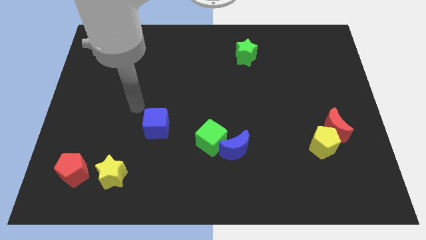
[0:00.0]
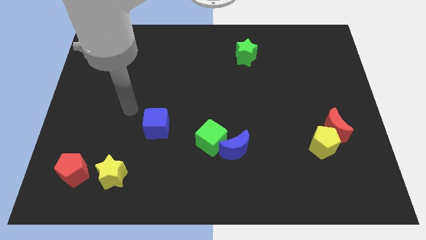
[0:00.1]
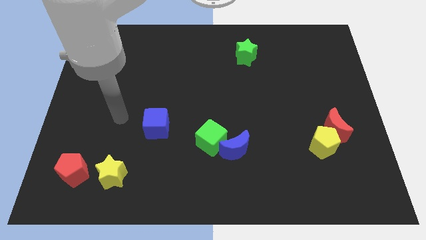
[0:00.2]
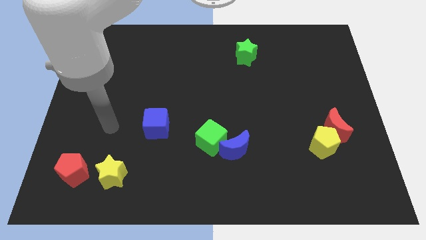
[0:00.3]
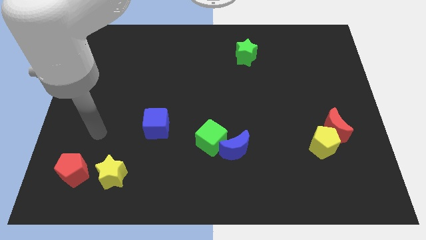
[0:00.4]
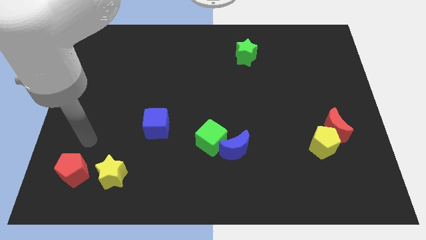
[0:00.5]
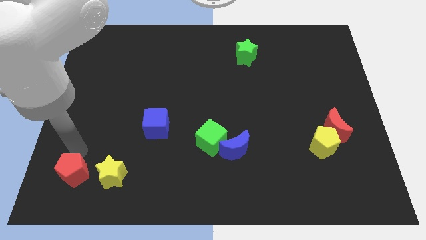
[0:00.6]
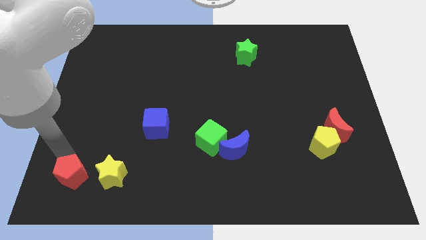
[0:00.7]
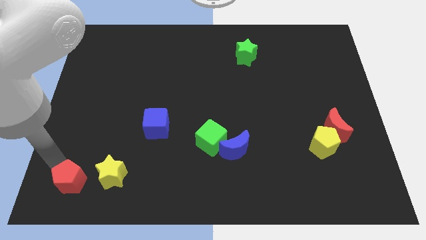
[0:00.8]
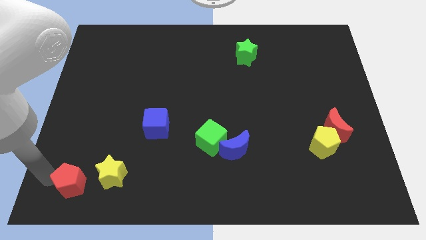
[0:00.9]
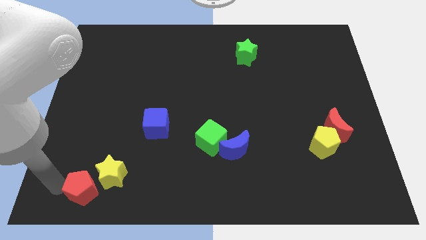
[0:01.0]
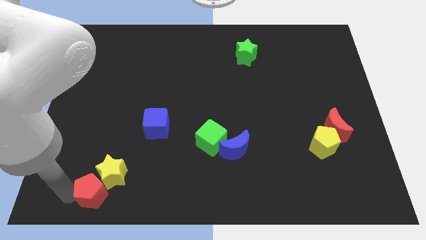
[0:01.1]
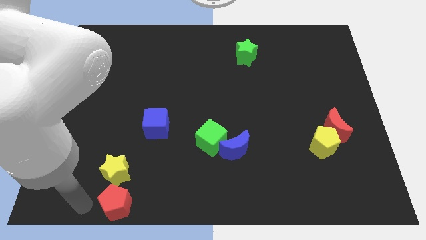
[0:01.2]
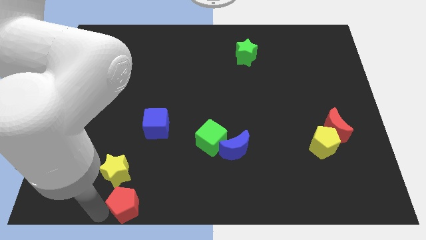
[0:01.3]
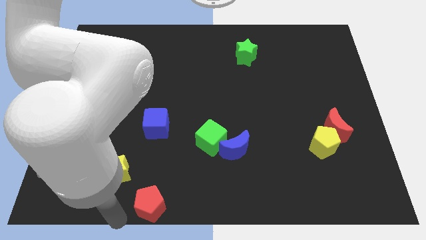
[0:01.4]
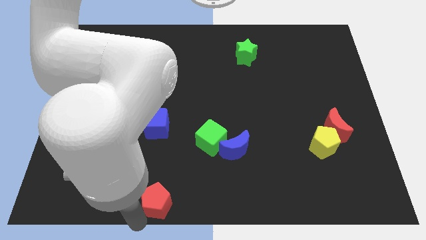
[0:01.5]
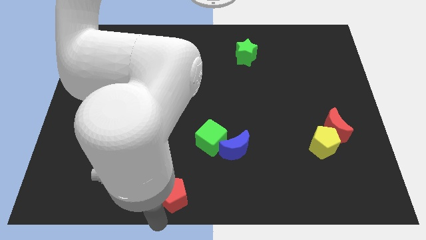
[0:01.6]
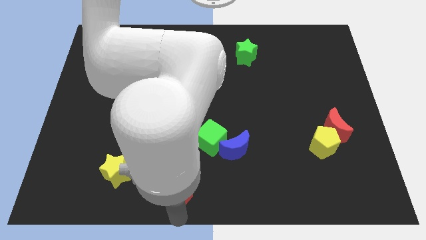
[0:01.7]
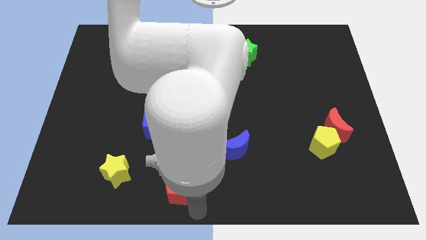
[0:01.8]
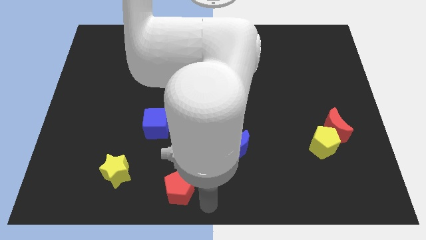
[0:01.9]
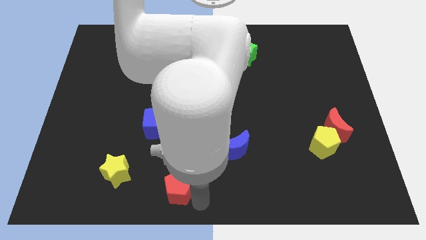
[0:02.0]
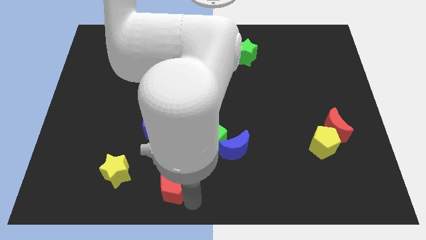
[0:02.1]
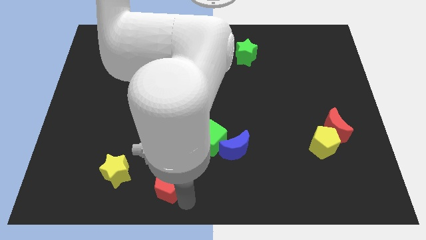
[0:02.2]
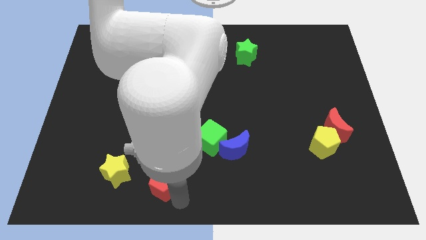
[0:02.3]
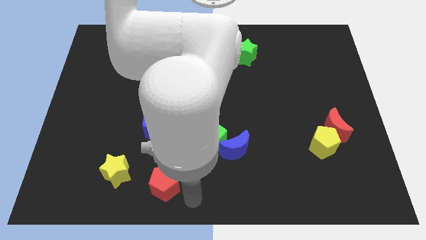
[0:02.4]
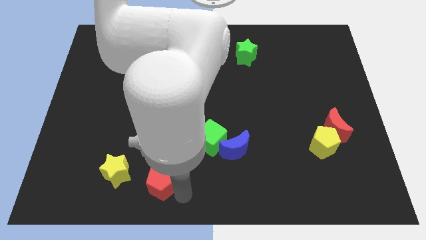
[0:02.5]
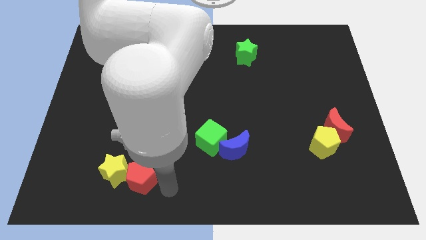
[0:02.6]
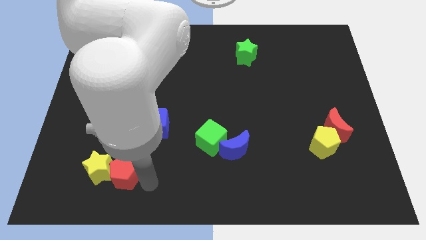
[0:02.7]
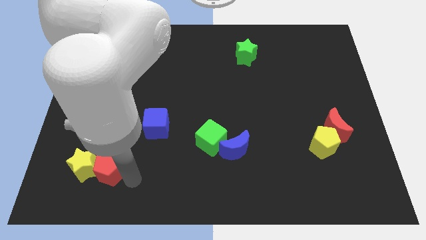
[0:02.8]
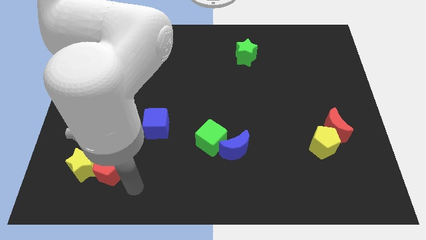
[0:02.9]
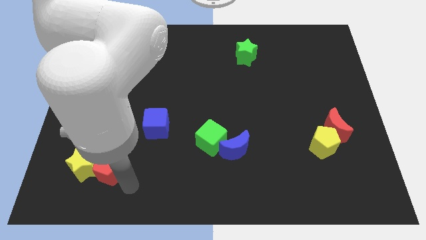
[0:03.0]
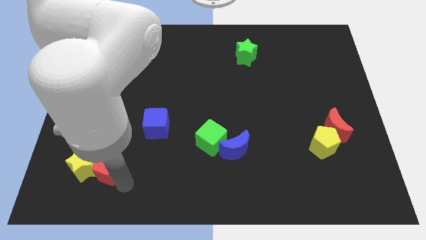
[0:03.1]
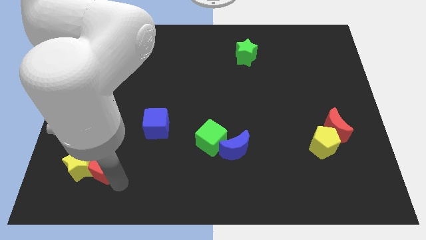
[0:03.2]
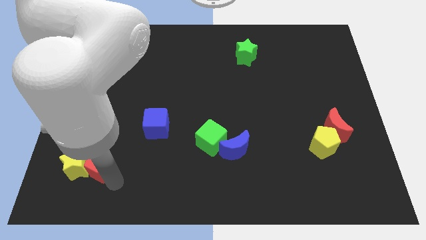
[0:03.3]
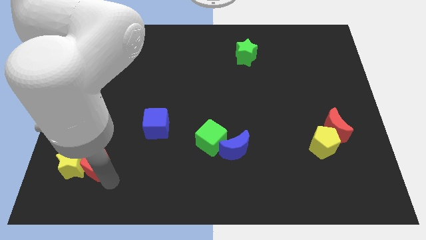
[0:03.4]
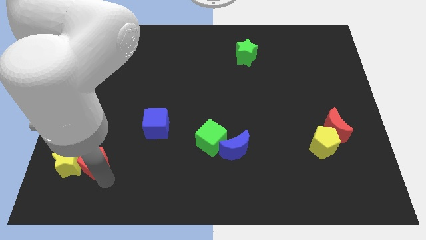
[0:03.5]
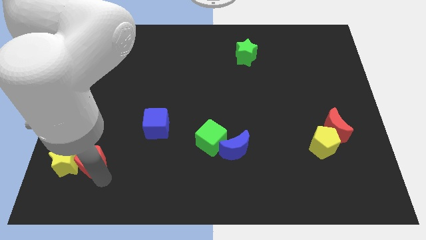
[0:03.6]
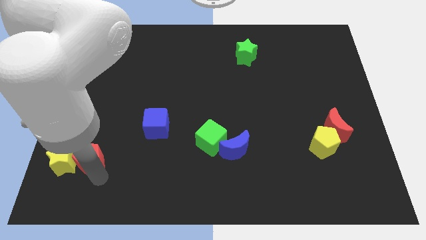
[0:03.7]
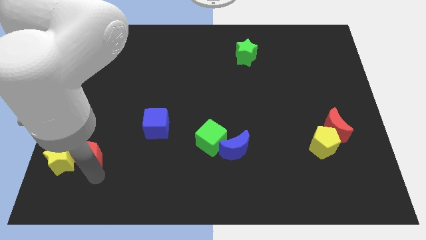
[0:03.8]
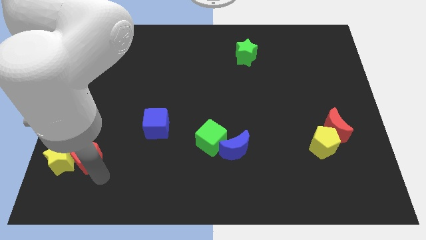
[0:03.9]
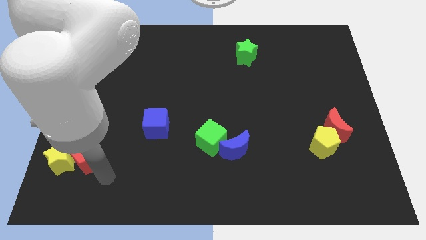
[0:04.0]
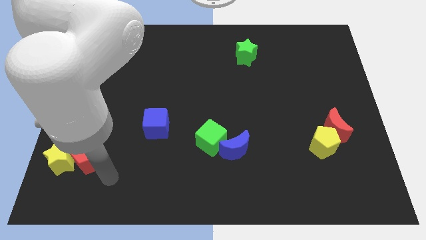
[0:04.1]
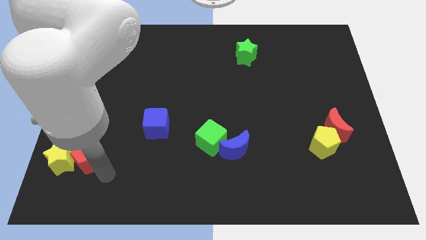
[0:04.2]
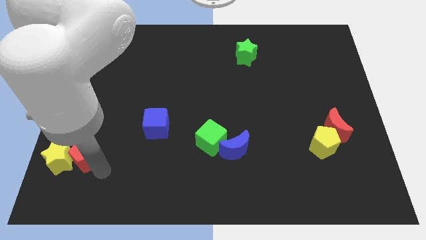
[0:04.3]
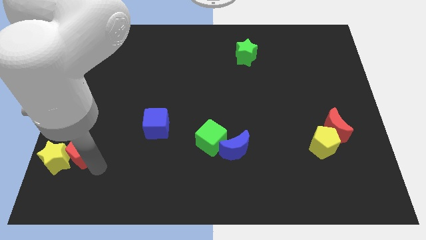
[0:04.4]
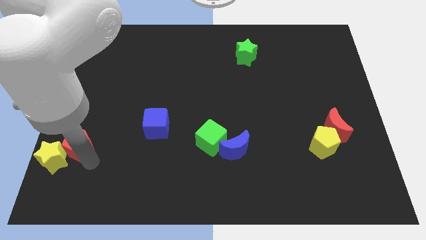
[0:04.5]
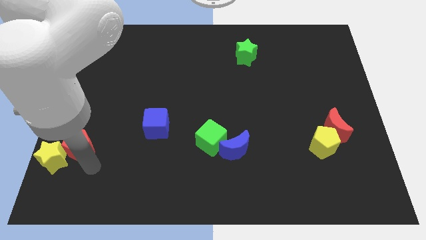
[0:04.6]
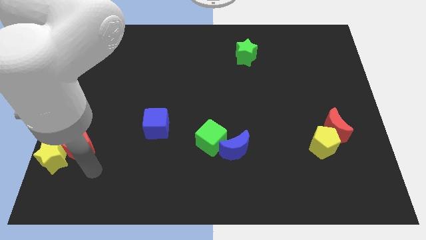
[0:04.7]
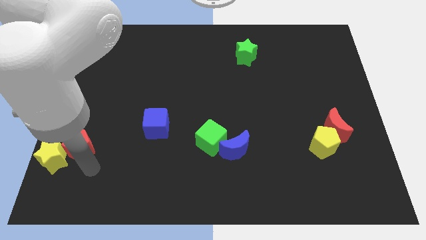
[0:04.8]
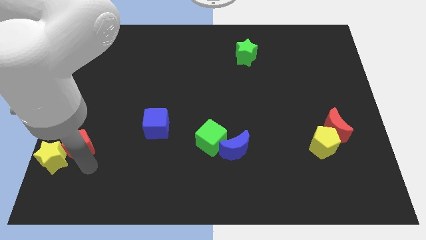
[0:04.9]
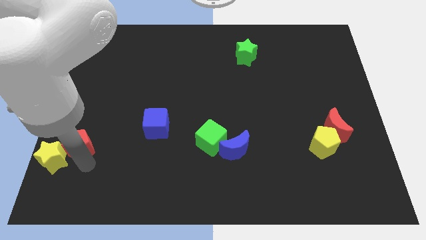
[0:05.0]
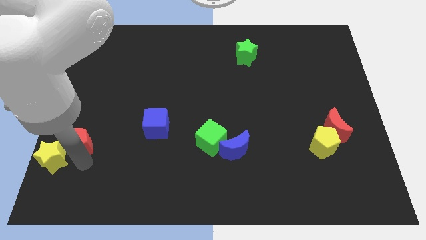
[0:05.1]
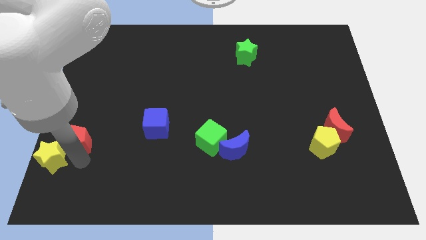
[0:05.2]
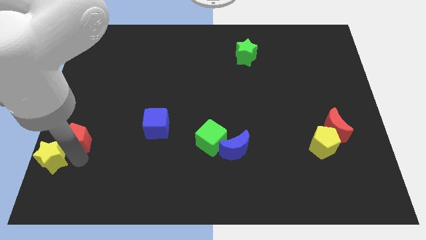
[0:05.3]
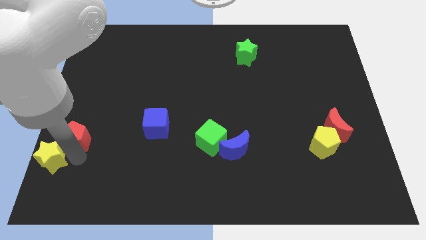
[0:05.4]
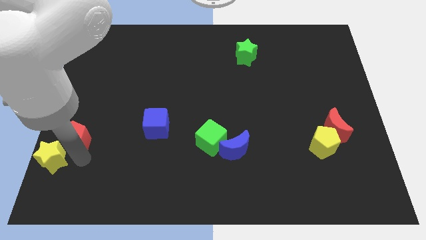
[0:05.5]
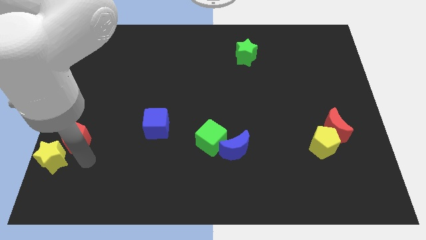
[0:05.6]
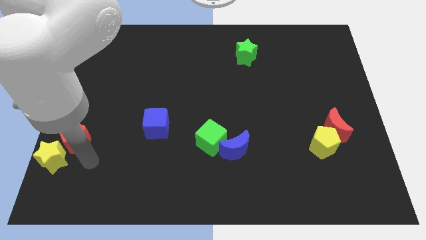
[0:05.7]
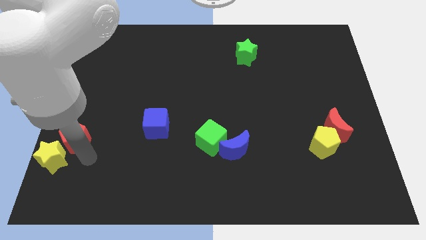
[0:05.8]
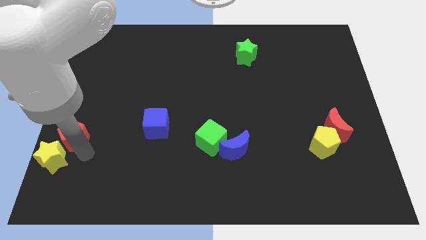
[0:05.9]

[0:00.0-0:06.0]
slide the red pentagon to the left side of the board

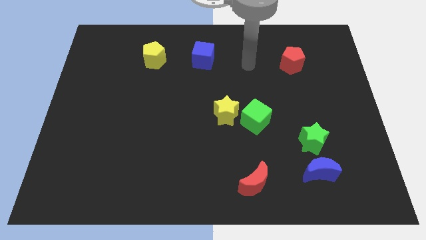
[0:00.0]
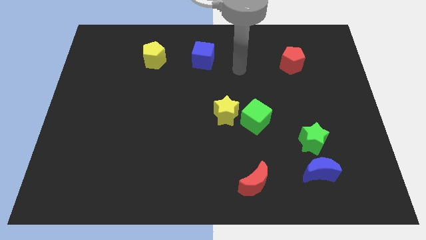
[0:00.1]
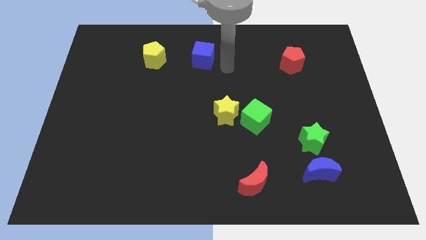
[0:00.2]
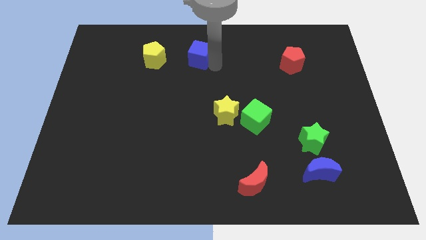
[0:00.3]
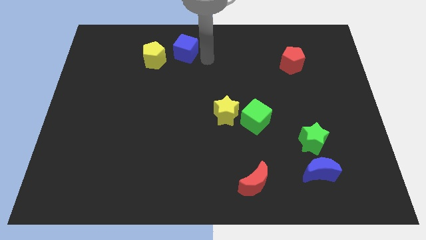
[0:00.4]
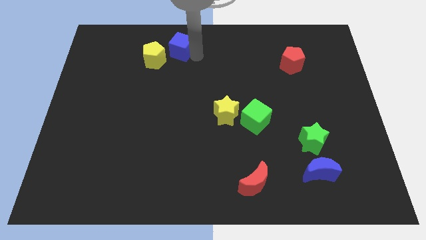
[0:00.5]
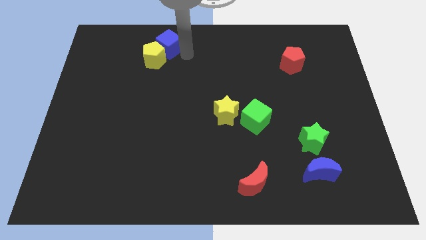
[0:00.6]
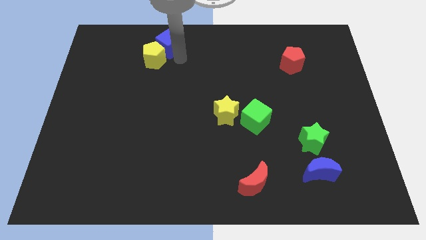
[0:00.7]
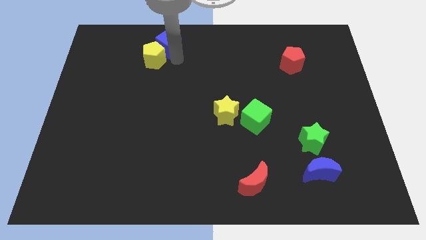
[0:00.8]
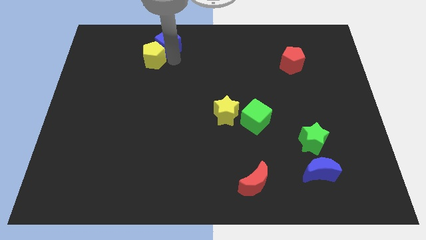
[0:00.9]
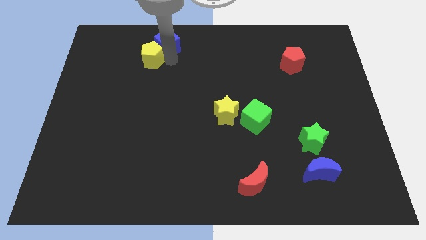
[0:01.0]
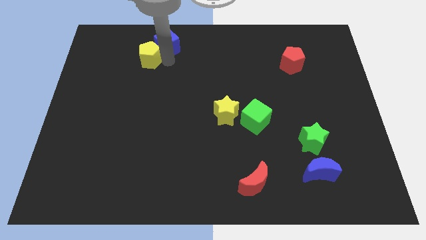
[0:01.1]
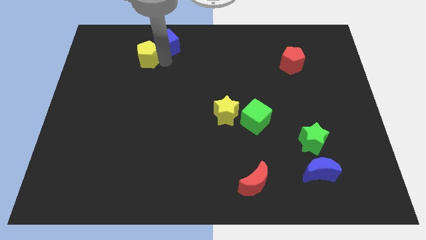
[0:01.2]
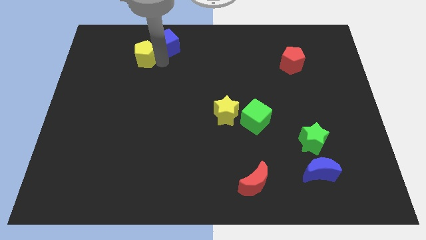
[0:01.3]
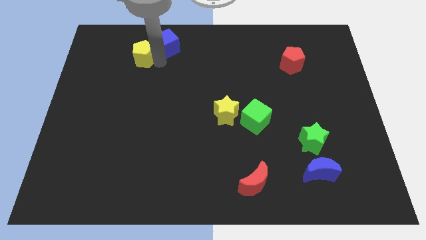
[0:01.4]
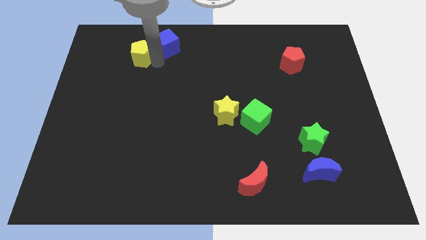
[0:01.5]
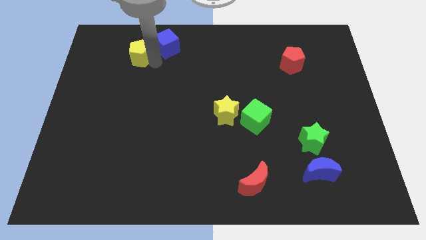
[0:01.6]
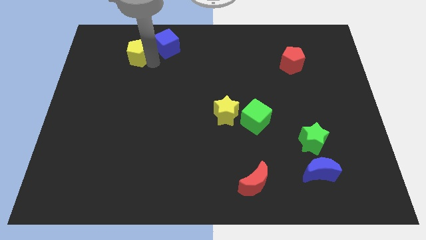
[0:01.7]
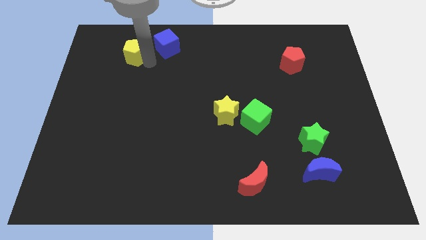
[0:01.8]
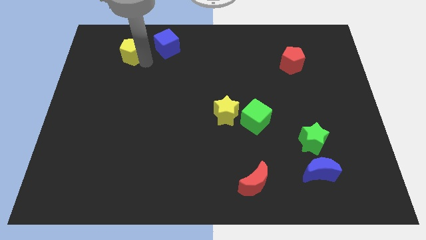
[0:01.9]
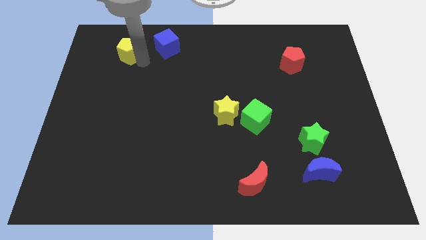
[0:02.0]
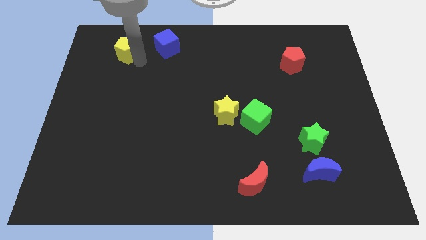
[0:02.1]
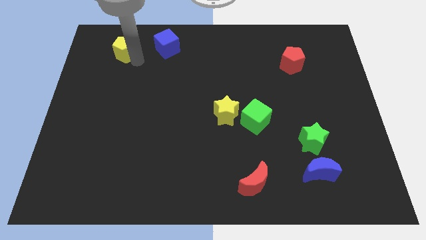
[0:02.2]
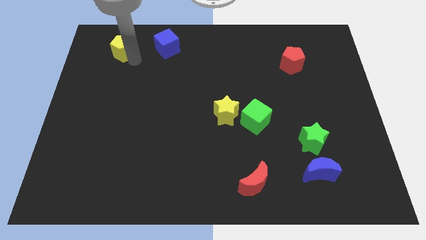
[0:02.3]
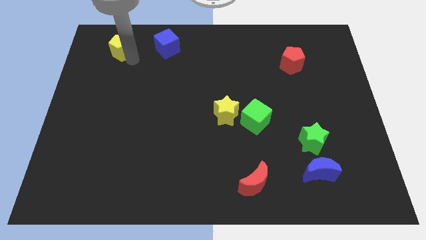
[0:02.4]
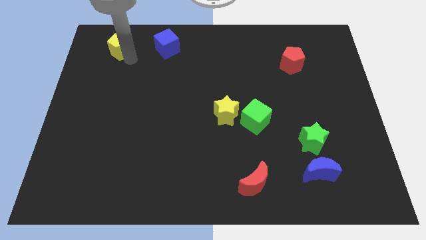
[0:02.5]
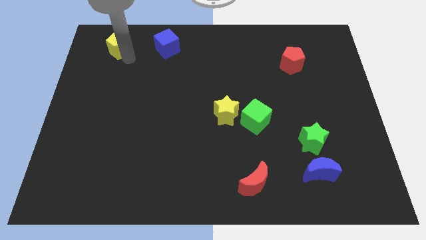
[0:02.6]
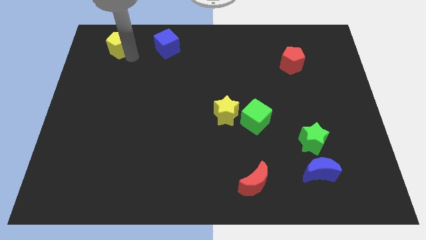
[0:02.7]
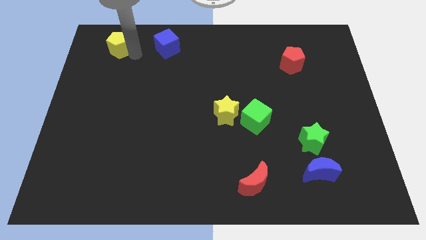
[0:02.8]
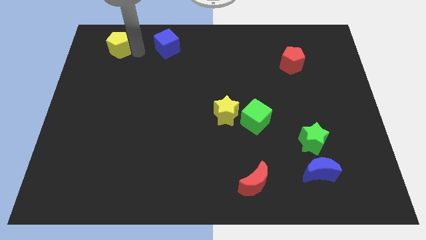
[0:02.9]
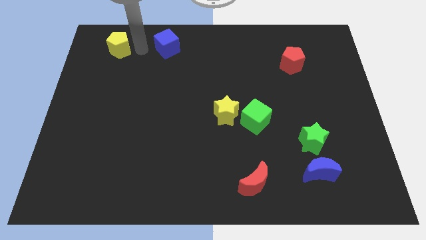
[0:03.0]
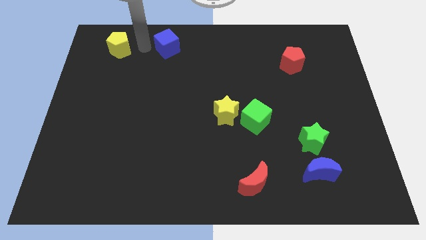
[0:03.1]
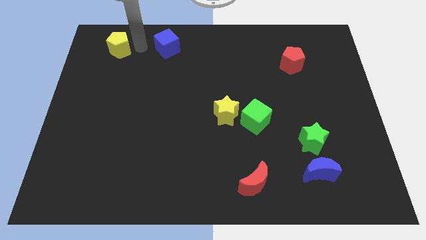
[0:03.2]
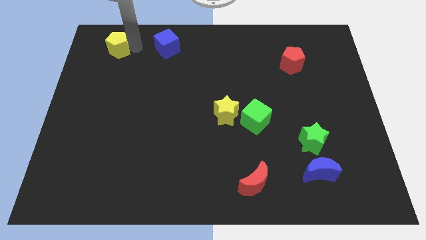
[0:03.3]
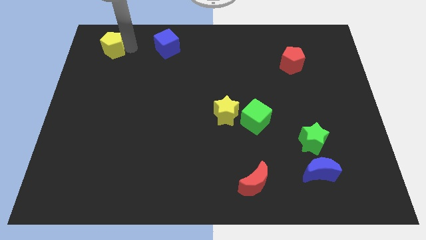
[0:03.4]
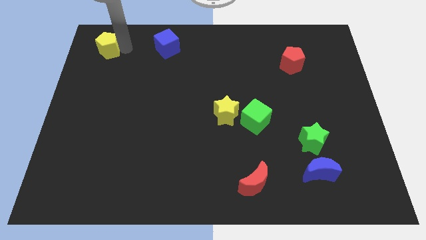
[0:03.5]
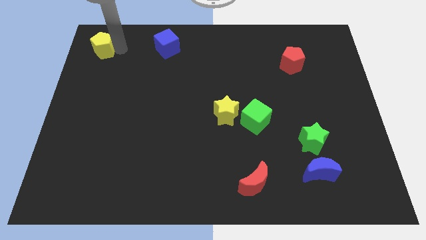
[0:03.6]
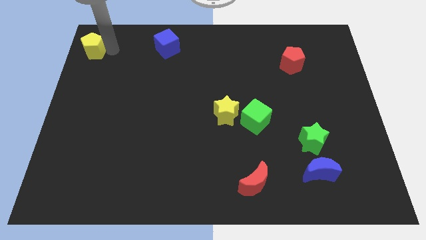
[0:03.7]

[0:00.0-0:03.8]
push the yellow pentagon to the upper left corner
